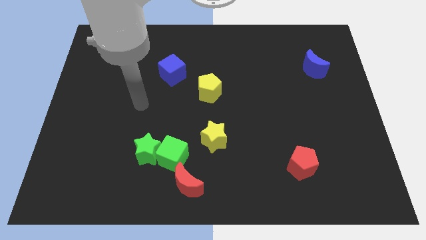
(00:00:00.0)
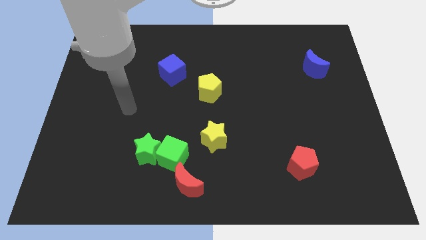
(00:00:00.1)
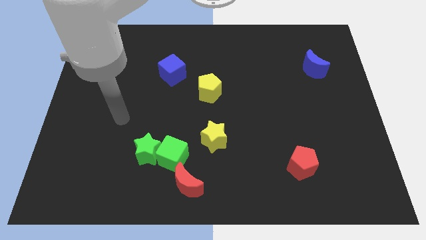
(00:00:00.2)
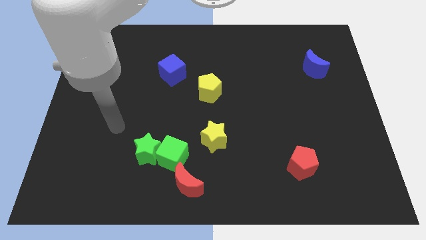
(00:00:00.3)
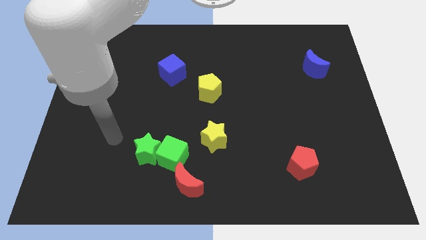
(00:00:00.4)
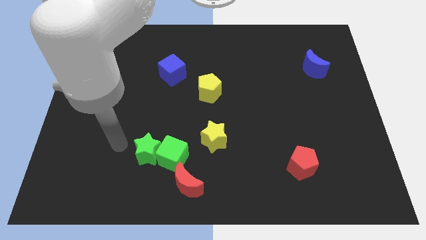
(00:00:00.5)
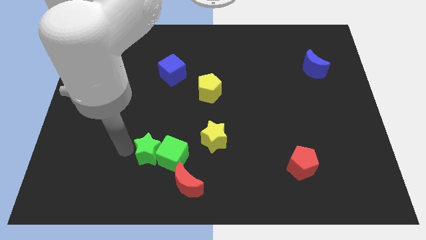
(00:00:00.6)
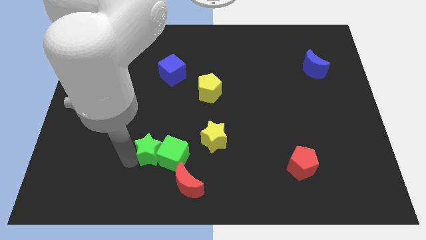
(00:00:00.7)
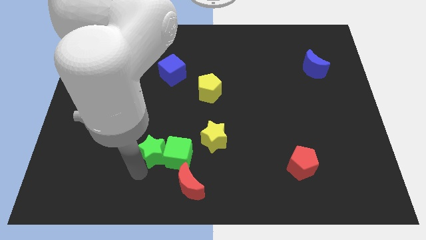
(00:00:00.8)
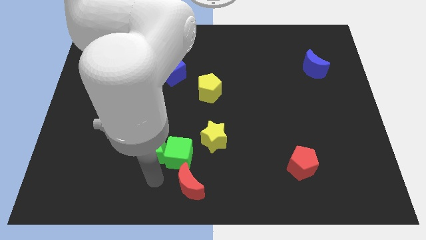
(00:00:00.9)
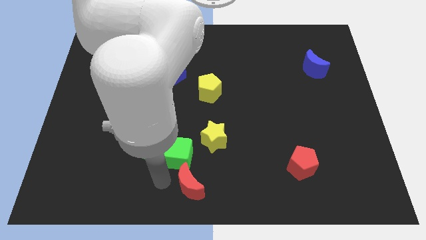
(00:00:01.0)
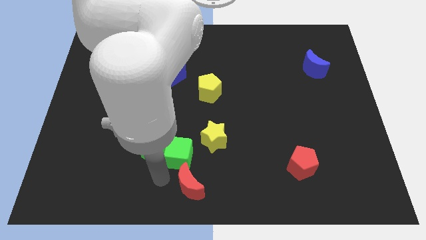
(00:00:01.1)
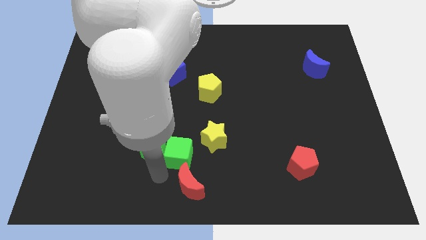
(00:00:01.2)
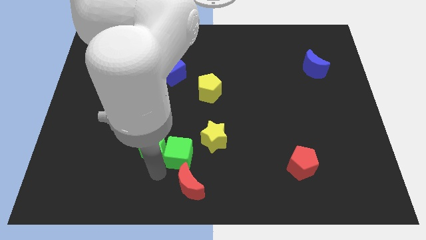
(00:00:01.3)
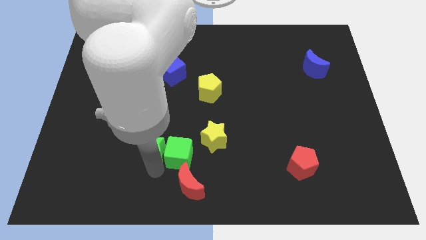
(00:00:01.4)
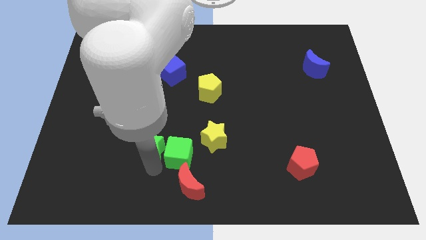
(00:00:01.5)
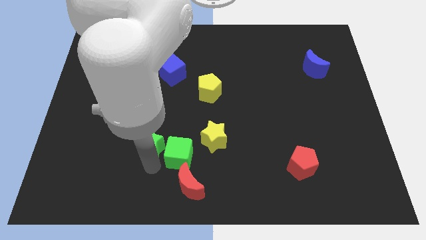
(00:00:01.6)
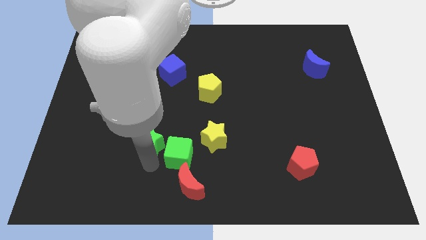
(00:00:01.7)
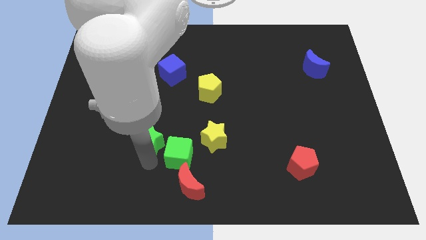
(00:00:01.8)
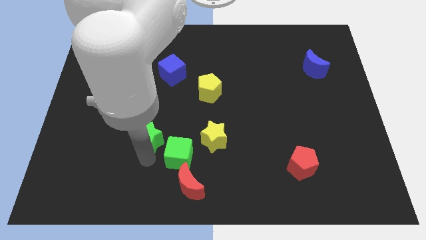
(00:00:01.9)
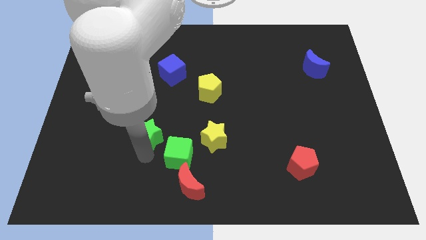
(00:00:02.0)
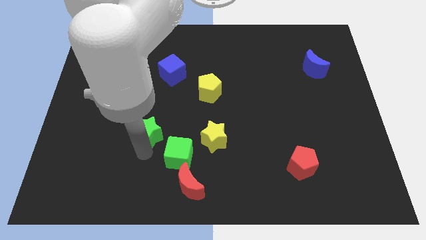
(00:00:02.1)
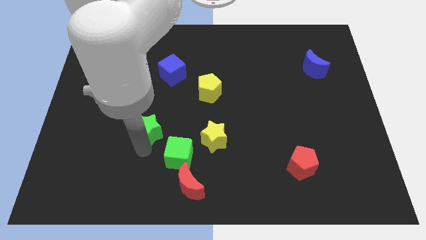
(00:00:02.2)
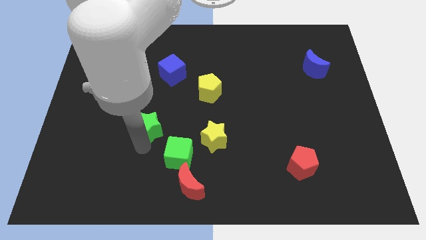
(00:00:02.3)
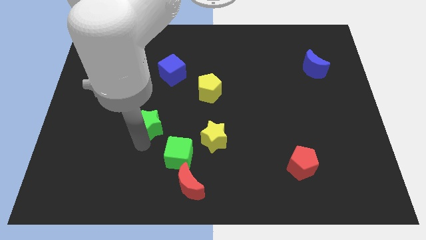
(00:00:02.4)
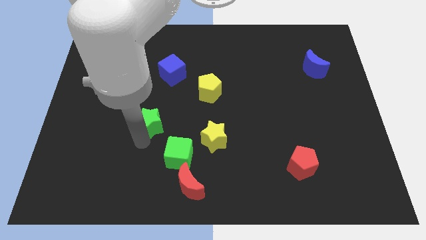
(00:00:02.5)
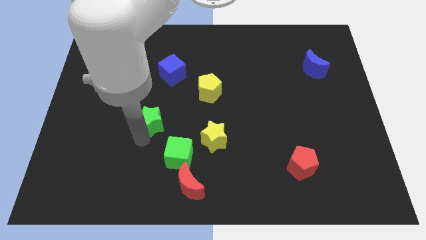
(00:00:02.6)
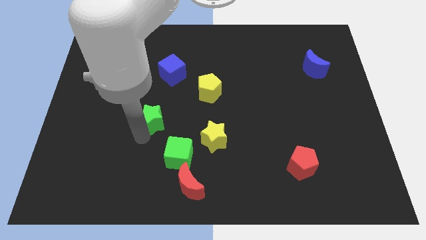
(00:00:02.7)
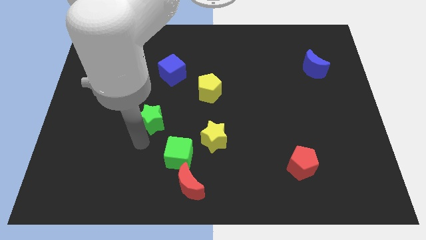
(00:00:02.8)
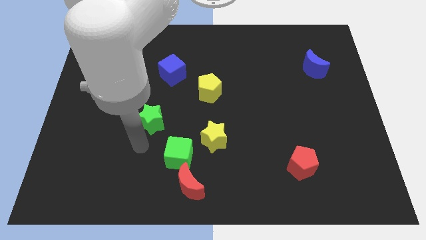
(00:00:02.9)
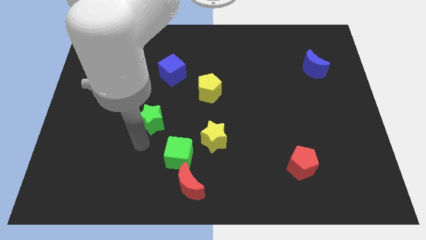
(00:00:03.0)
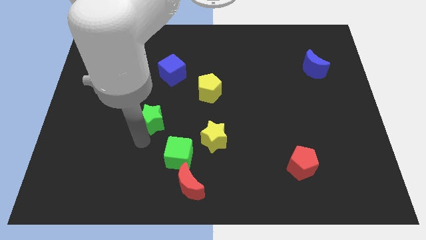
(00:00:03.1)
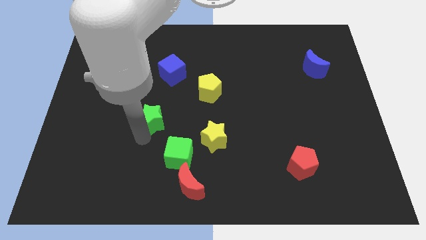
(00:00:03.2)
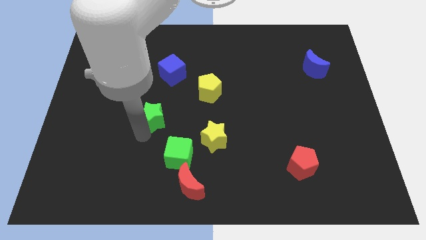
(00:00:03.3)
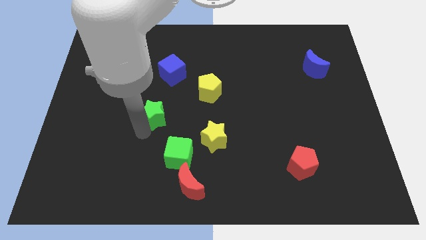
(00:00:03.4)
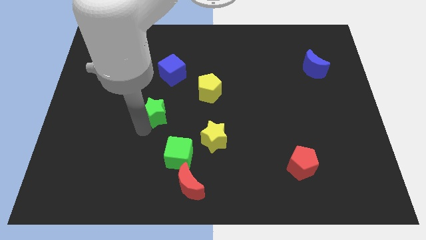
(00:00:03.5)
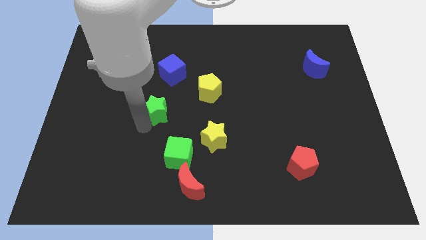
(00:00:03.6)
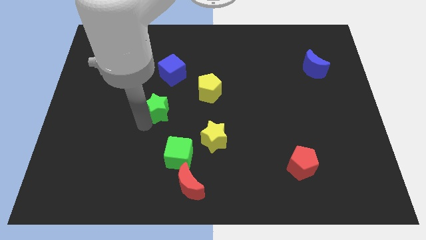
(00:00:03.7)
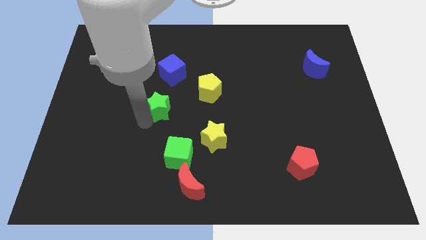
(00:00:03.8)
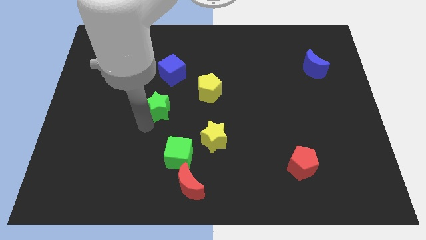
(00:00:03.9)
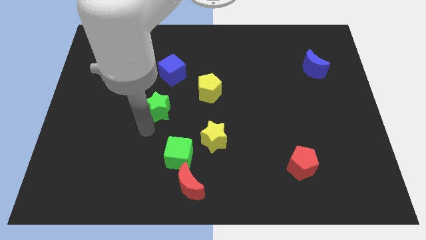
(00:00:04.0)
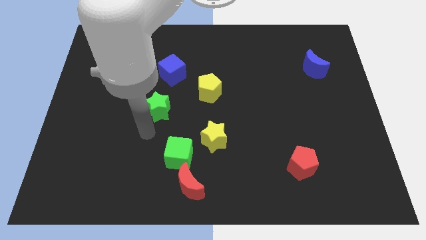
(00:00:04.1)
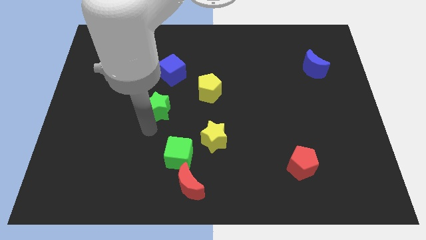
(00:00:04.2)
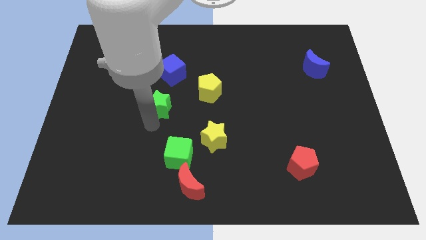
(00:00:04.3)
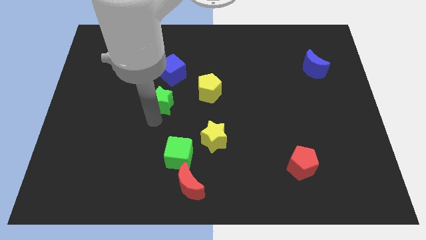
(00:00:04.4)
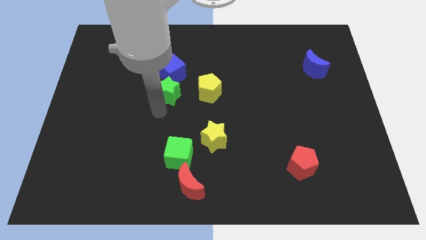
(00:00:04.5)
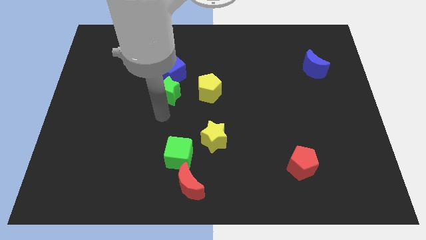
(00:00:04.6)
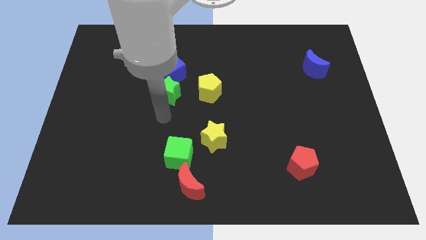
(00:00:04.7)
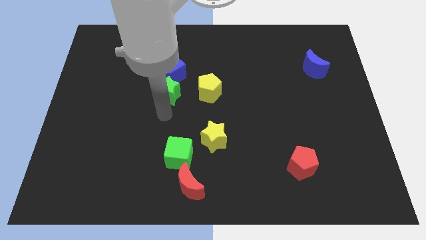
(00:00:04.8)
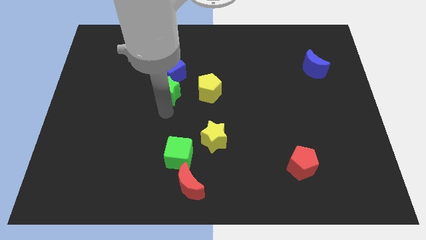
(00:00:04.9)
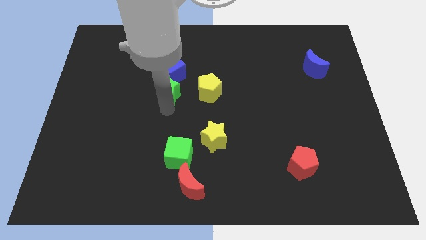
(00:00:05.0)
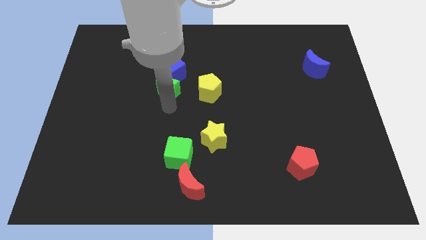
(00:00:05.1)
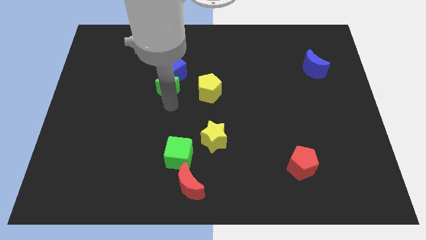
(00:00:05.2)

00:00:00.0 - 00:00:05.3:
push the green star towards the blue cube

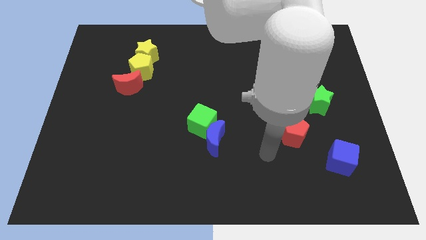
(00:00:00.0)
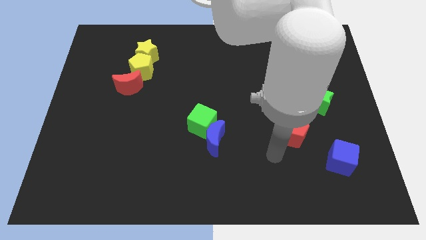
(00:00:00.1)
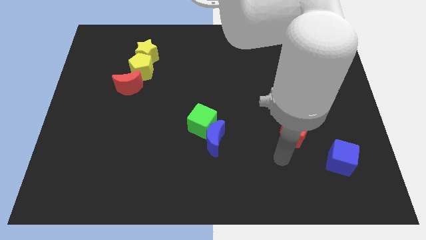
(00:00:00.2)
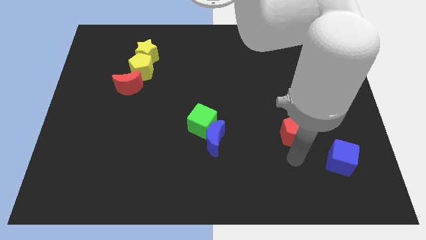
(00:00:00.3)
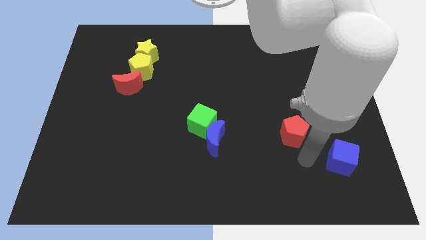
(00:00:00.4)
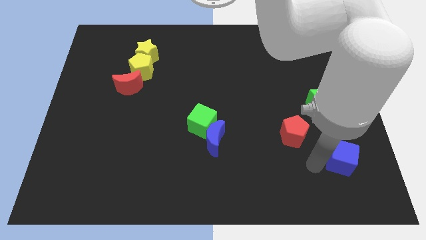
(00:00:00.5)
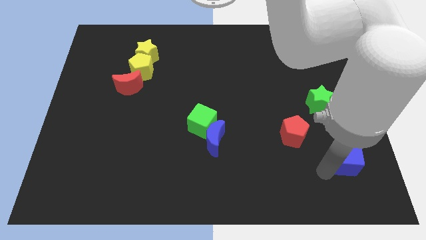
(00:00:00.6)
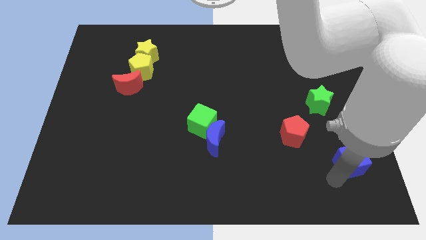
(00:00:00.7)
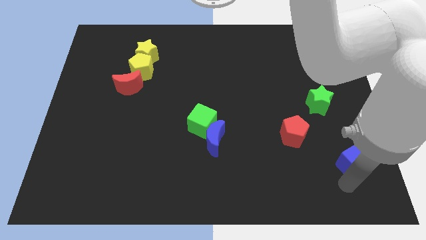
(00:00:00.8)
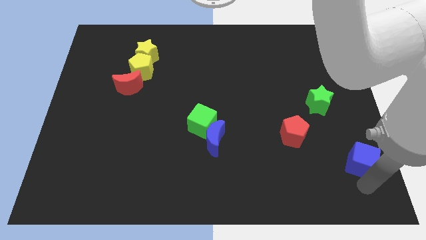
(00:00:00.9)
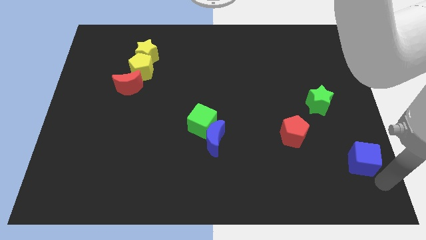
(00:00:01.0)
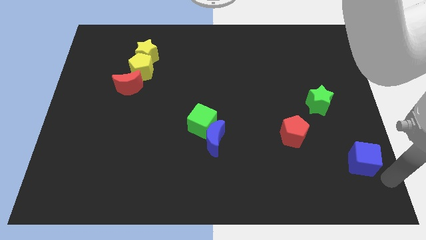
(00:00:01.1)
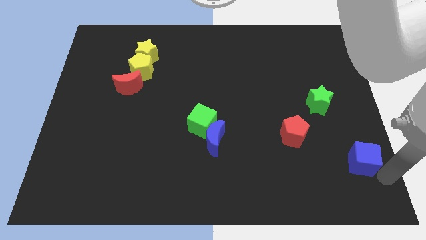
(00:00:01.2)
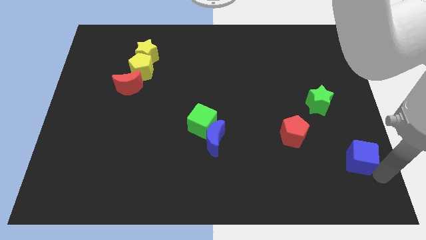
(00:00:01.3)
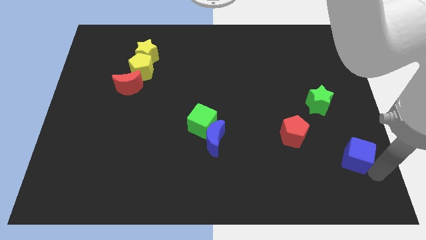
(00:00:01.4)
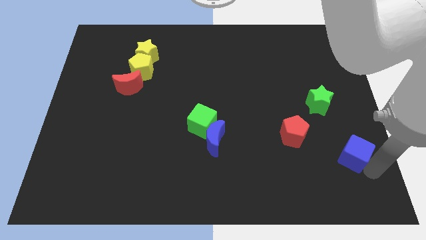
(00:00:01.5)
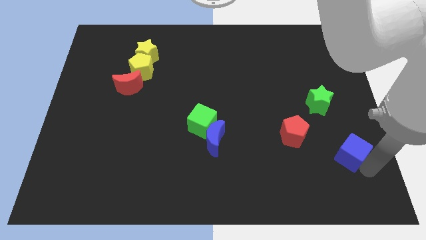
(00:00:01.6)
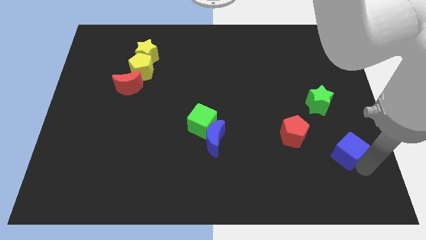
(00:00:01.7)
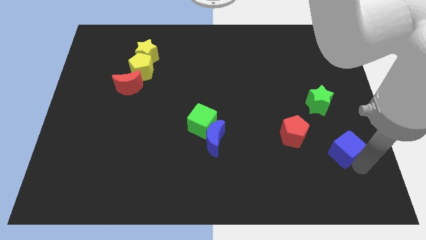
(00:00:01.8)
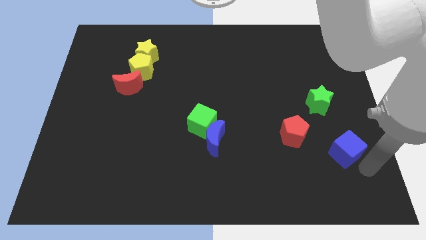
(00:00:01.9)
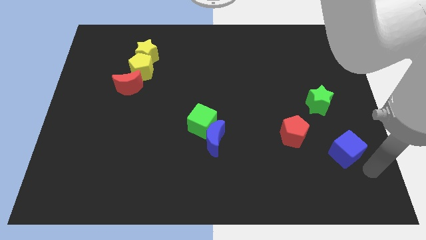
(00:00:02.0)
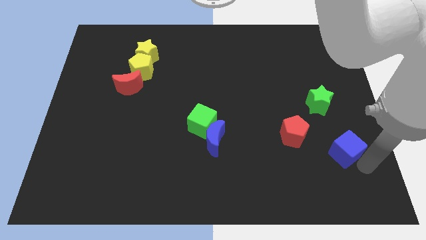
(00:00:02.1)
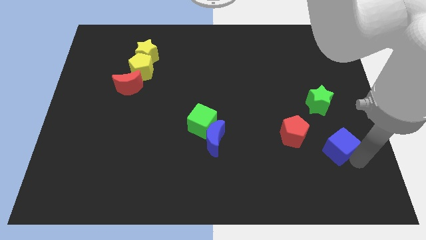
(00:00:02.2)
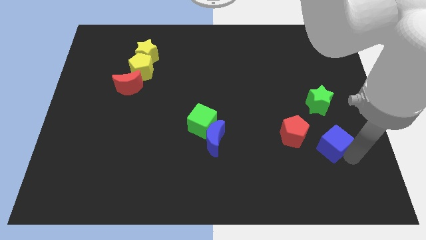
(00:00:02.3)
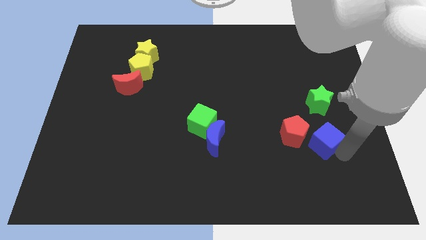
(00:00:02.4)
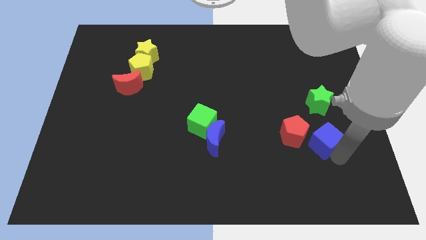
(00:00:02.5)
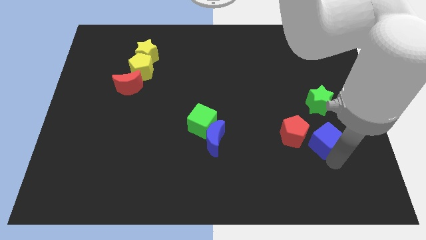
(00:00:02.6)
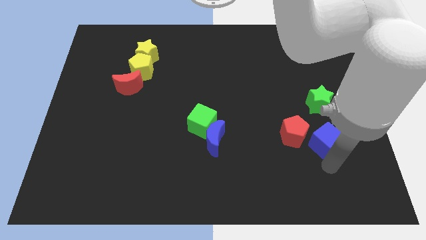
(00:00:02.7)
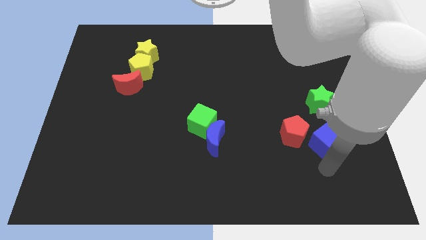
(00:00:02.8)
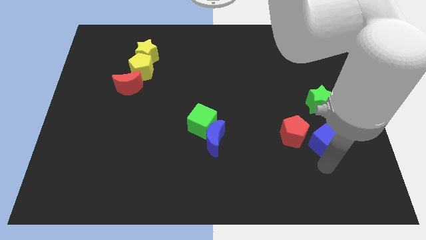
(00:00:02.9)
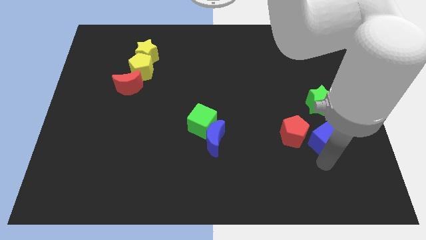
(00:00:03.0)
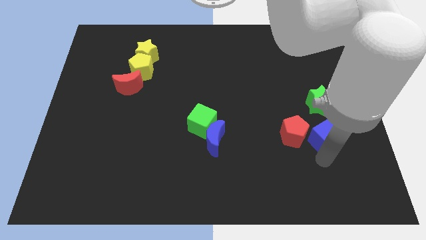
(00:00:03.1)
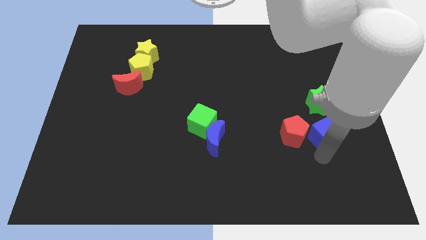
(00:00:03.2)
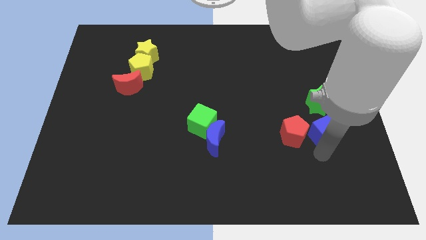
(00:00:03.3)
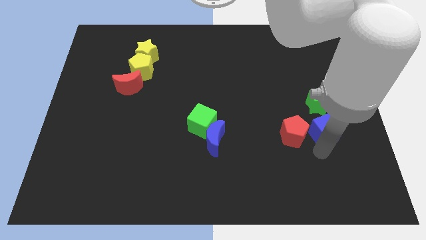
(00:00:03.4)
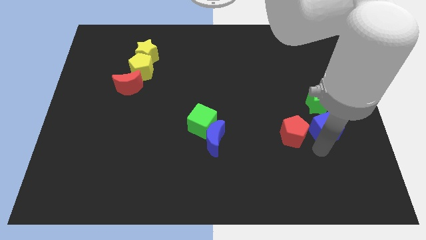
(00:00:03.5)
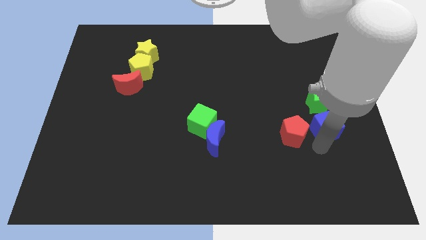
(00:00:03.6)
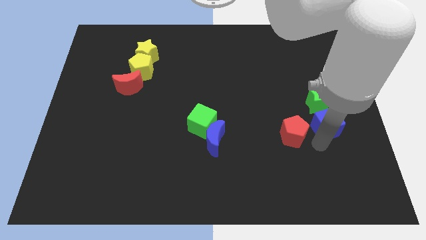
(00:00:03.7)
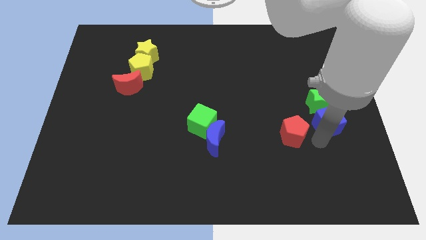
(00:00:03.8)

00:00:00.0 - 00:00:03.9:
slide the blue cube towards the green star
